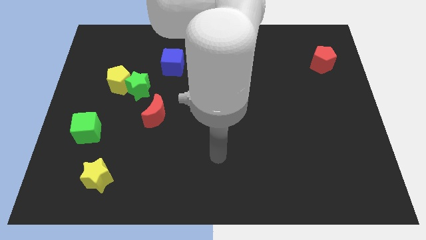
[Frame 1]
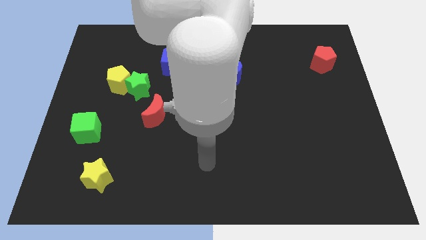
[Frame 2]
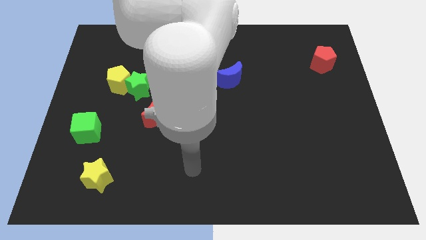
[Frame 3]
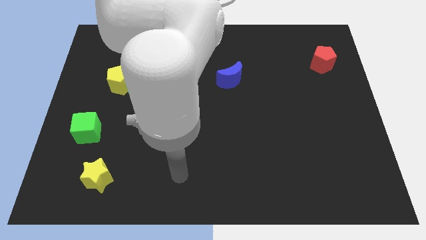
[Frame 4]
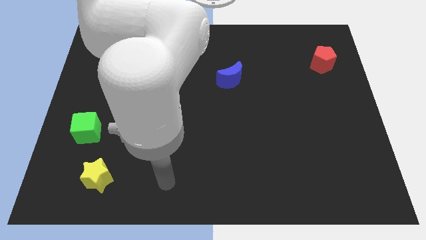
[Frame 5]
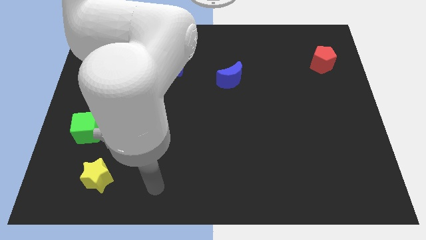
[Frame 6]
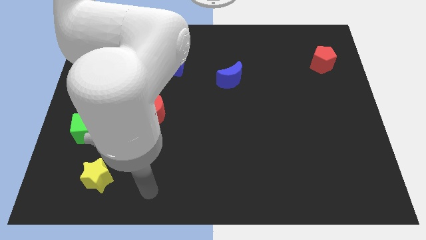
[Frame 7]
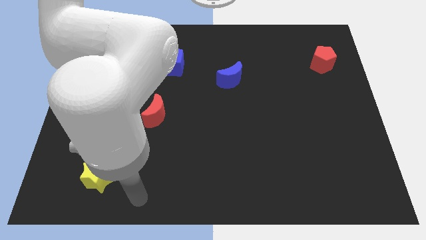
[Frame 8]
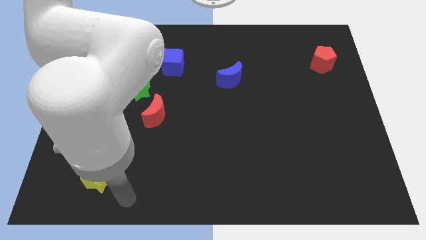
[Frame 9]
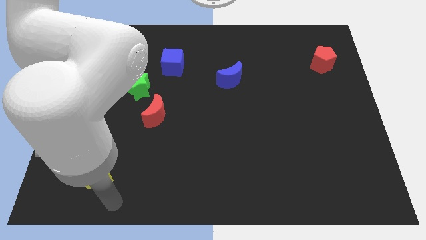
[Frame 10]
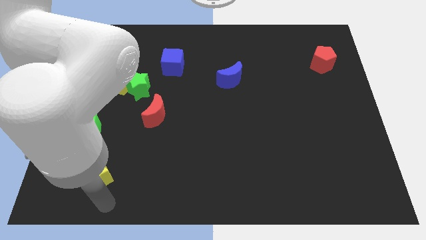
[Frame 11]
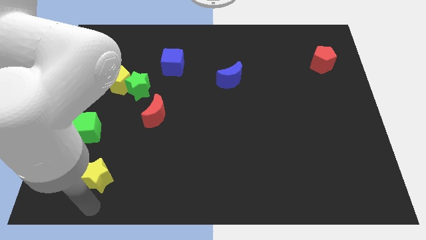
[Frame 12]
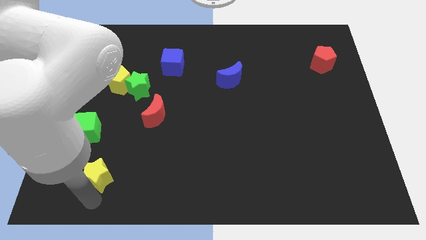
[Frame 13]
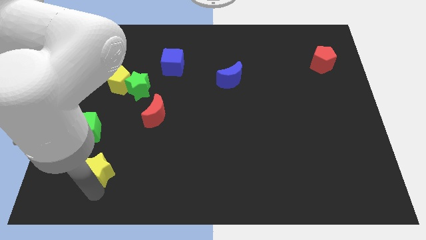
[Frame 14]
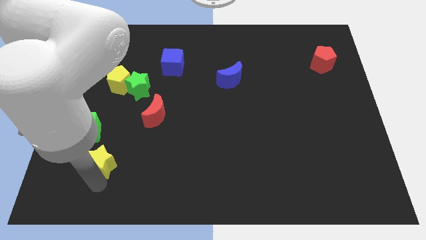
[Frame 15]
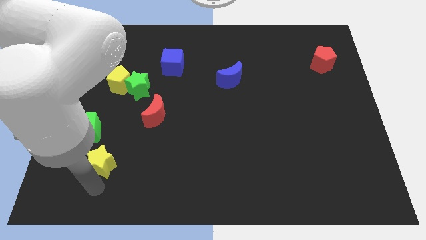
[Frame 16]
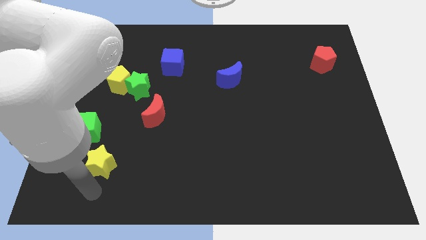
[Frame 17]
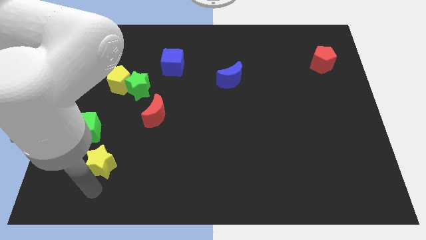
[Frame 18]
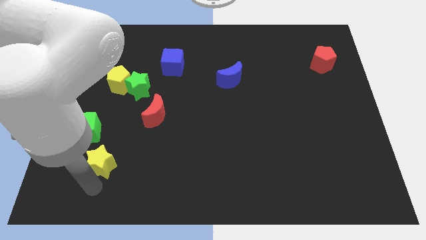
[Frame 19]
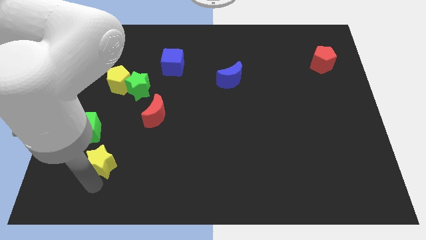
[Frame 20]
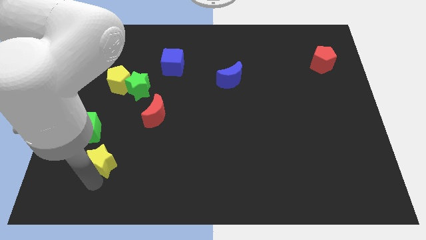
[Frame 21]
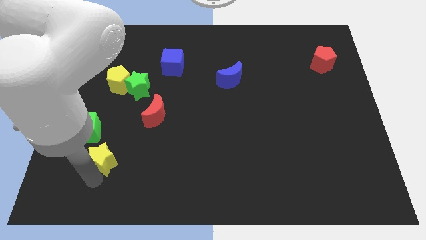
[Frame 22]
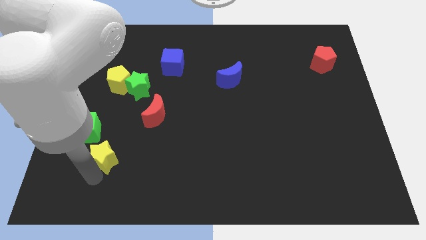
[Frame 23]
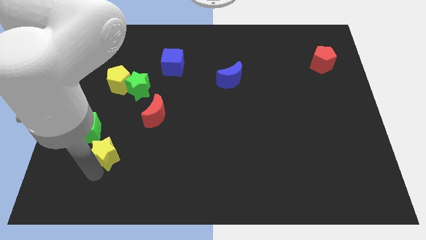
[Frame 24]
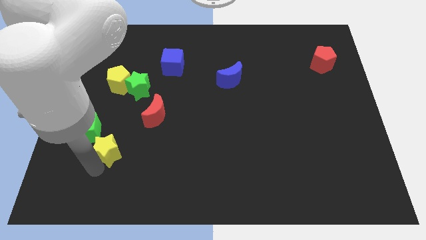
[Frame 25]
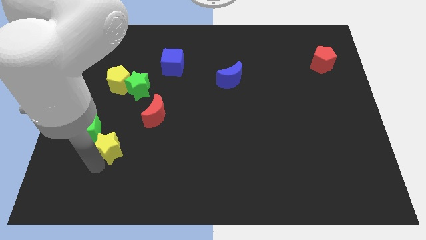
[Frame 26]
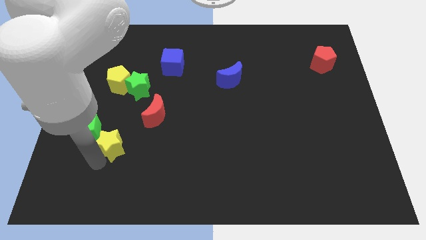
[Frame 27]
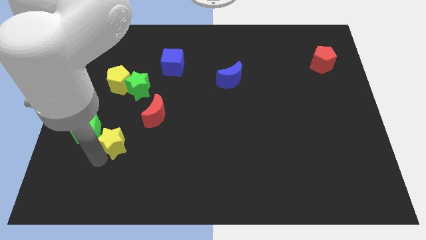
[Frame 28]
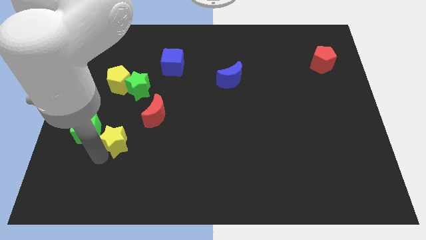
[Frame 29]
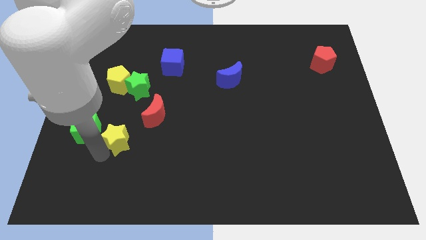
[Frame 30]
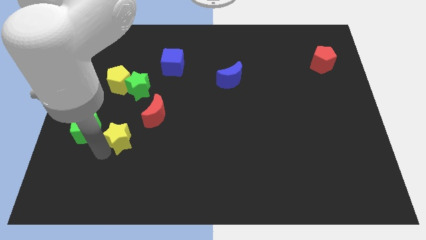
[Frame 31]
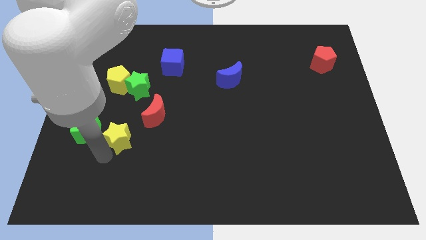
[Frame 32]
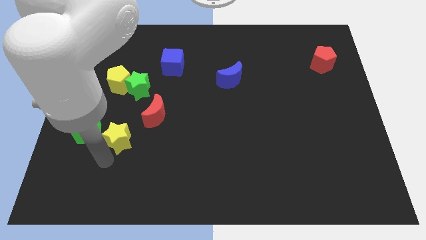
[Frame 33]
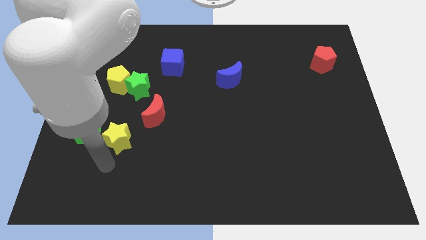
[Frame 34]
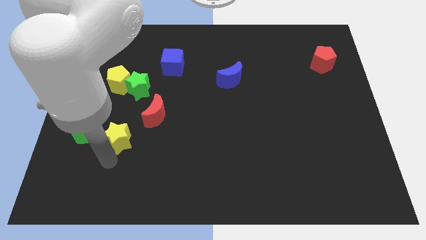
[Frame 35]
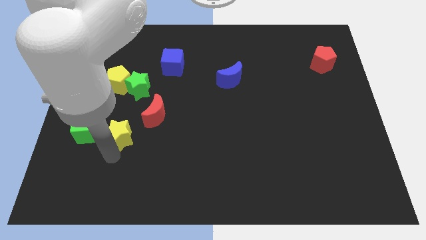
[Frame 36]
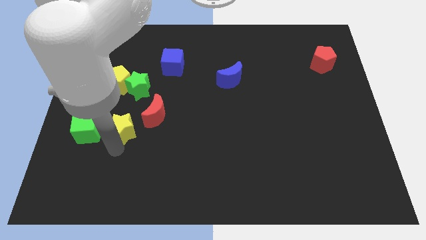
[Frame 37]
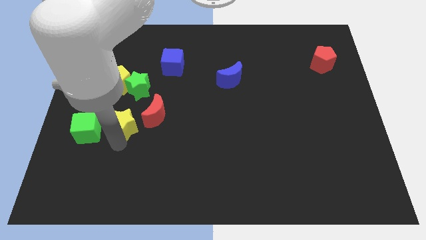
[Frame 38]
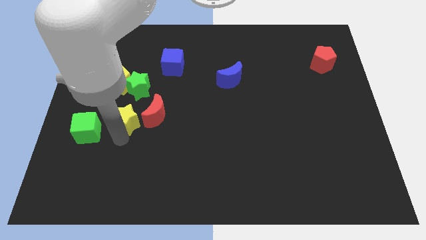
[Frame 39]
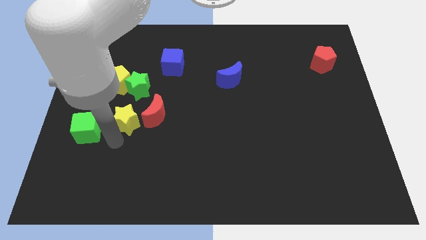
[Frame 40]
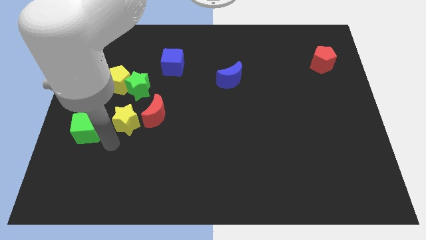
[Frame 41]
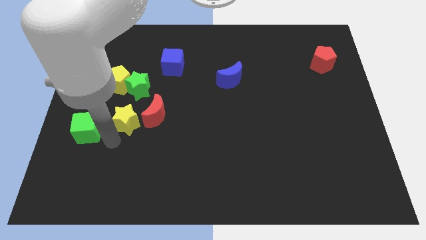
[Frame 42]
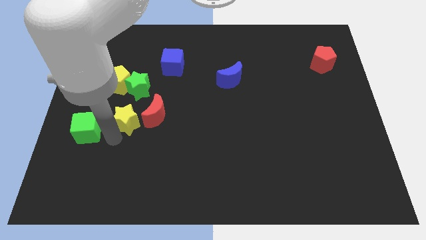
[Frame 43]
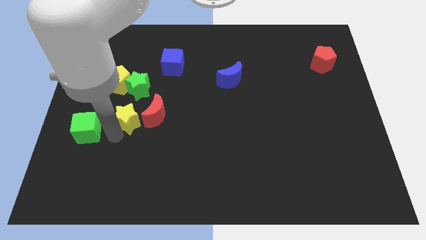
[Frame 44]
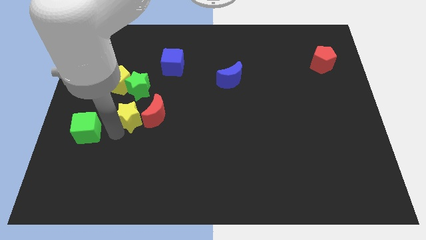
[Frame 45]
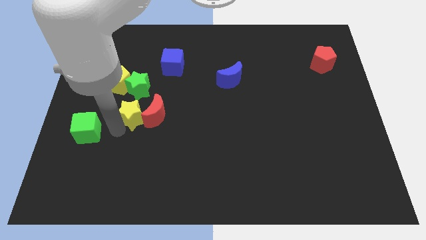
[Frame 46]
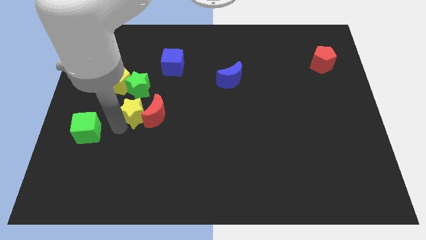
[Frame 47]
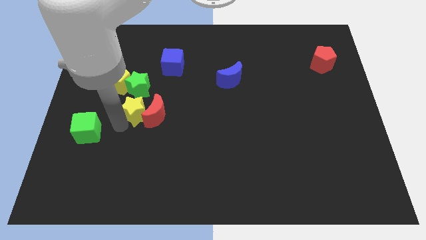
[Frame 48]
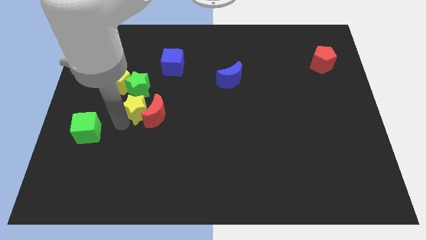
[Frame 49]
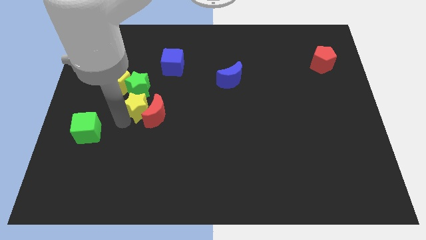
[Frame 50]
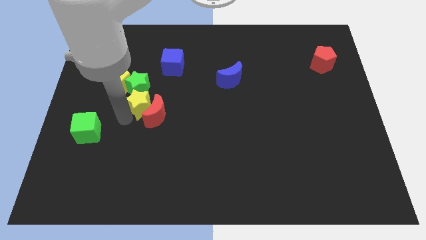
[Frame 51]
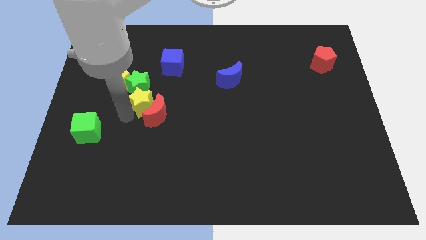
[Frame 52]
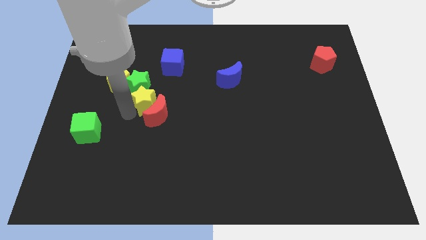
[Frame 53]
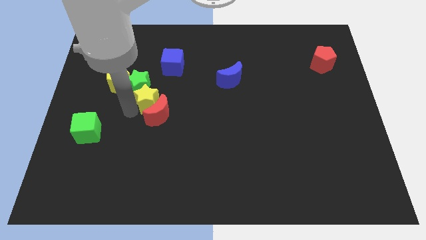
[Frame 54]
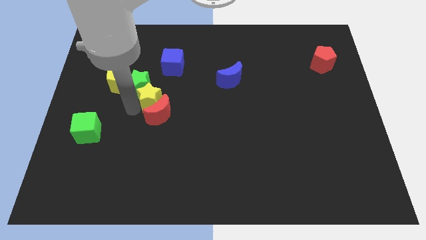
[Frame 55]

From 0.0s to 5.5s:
slide the yellow star to the bottom of the blue cube

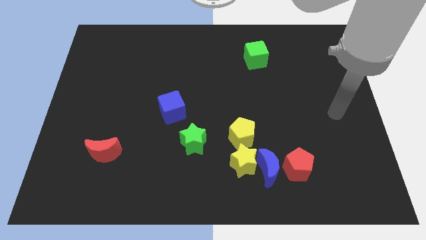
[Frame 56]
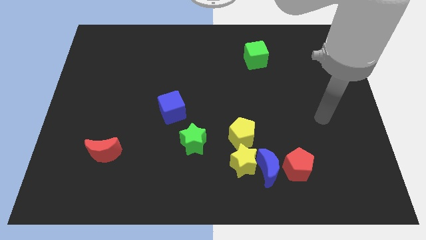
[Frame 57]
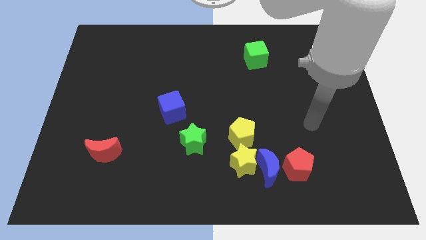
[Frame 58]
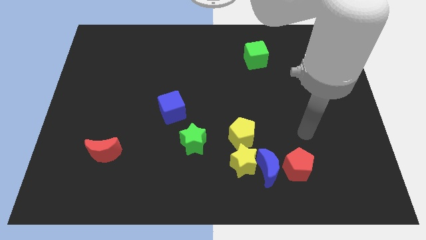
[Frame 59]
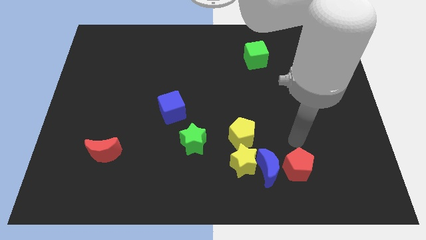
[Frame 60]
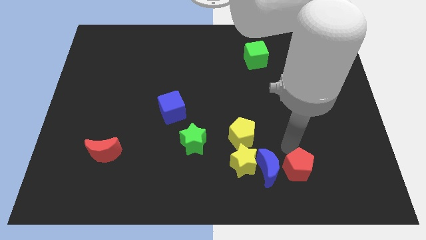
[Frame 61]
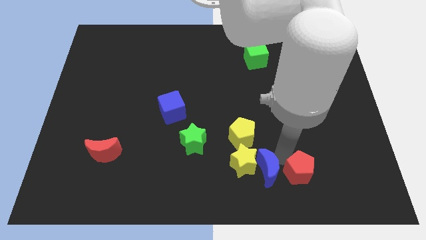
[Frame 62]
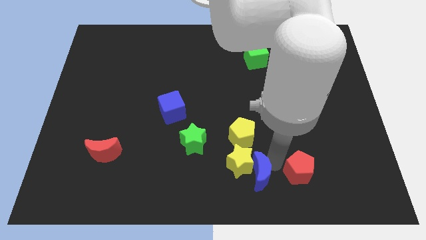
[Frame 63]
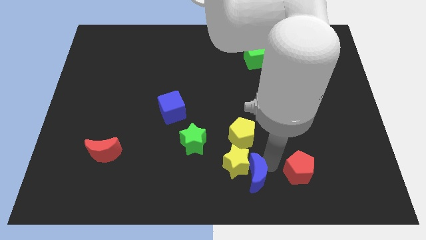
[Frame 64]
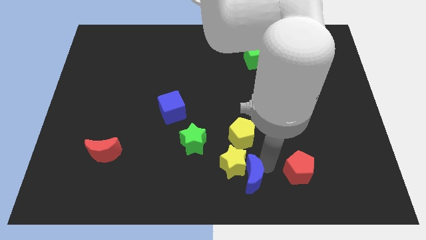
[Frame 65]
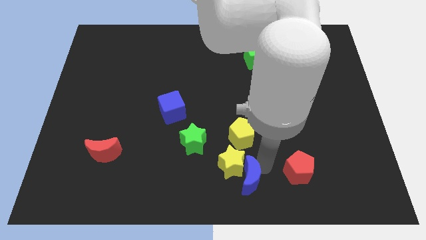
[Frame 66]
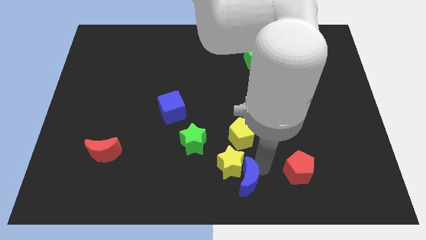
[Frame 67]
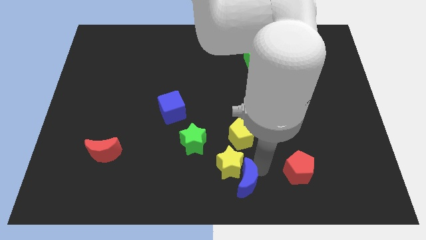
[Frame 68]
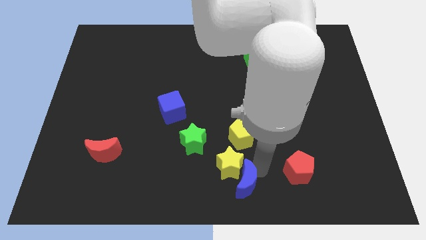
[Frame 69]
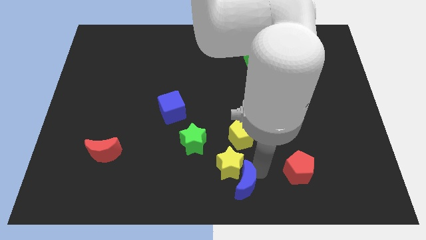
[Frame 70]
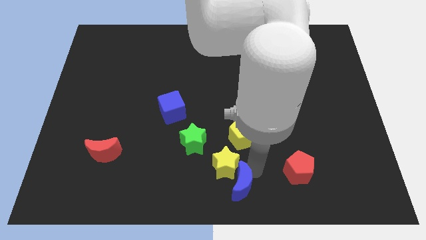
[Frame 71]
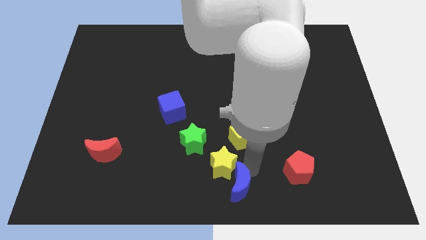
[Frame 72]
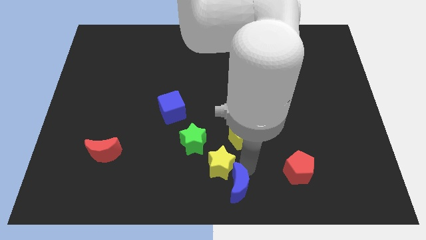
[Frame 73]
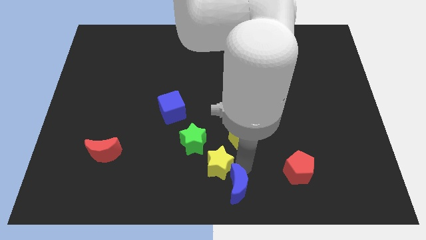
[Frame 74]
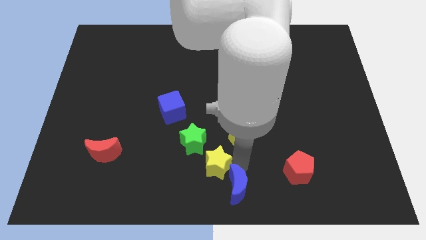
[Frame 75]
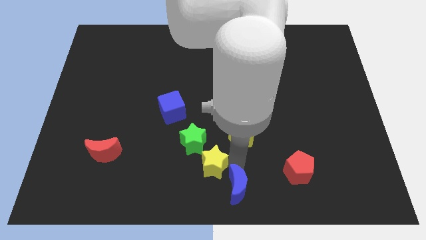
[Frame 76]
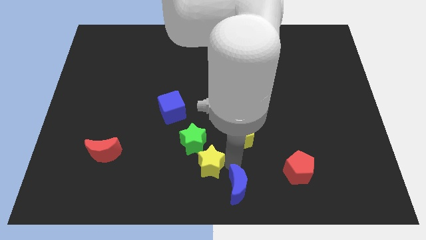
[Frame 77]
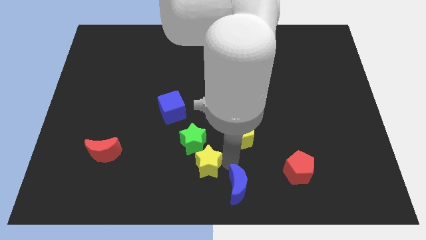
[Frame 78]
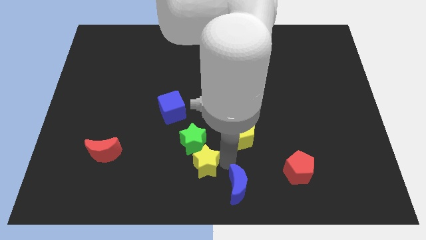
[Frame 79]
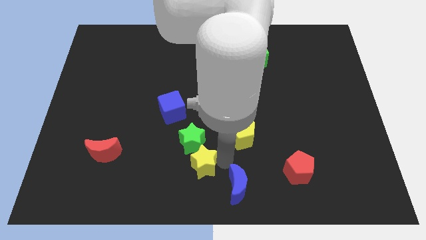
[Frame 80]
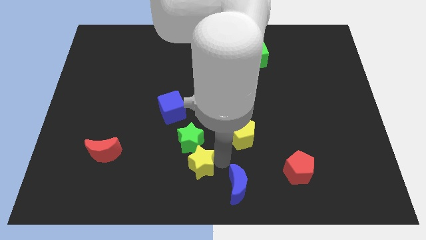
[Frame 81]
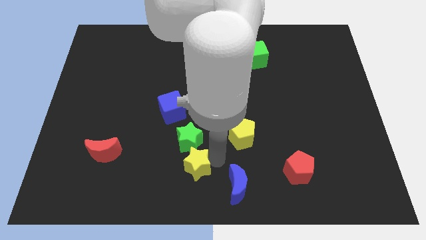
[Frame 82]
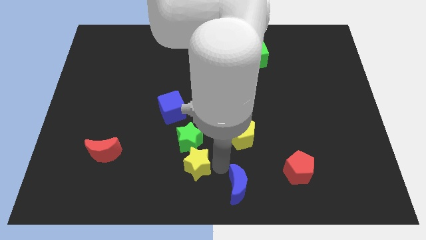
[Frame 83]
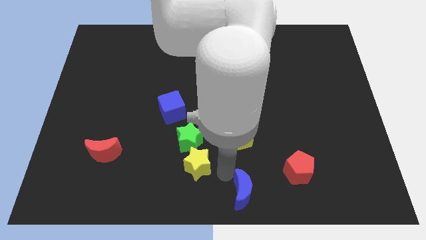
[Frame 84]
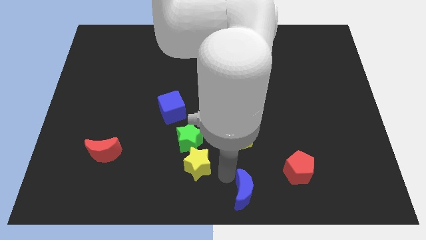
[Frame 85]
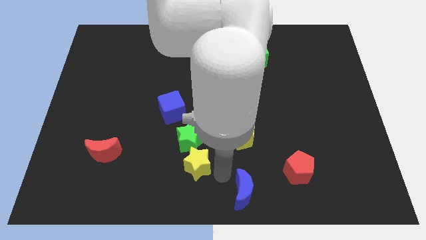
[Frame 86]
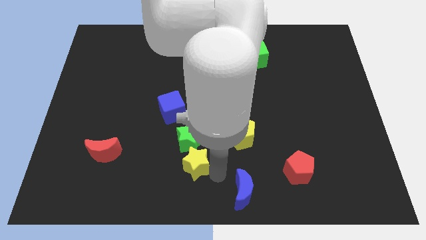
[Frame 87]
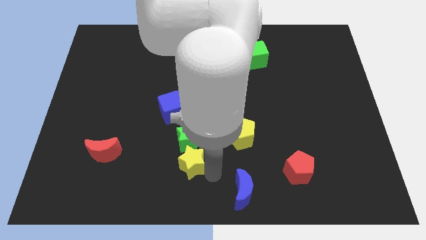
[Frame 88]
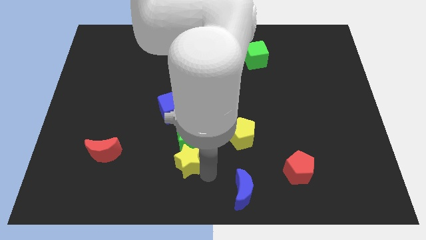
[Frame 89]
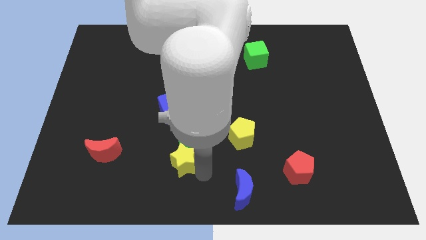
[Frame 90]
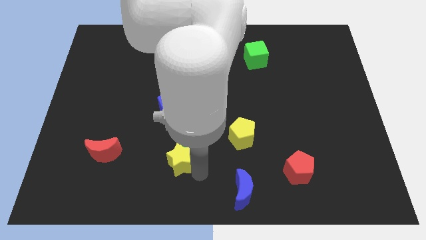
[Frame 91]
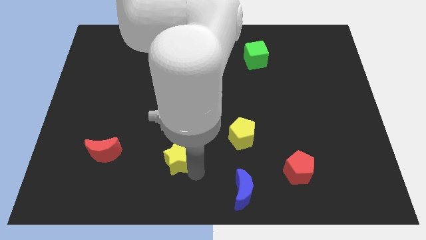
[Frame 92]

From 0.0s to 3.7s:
push the yellow star to the right side of the red moon
